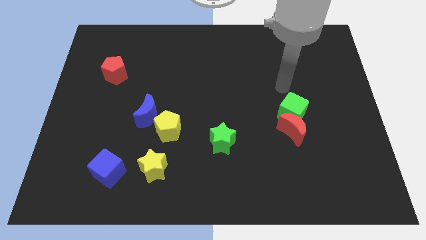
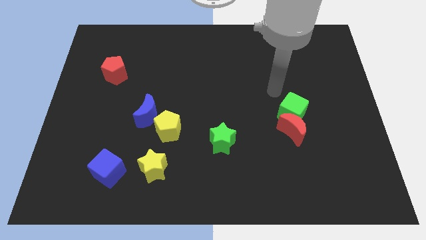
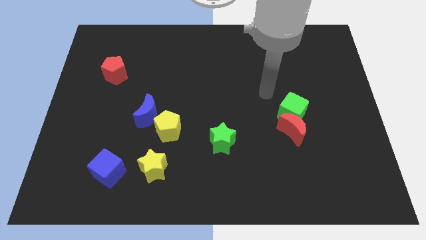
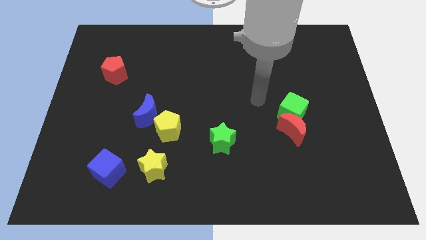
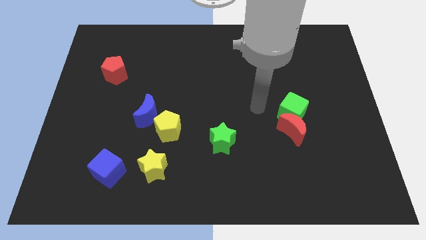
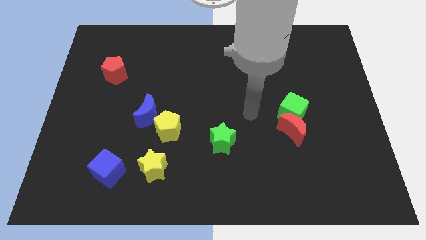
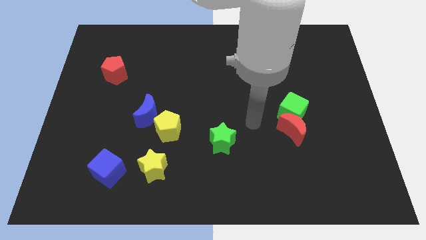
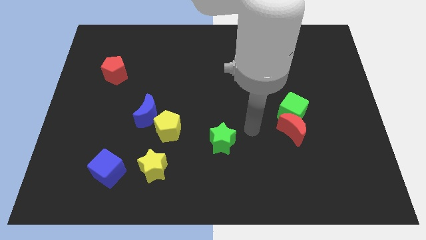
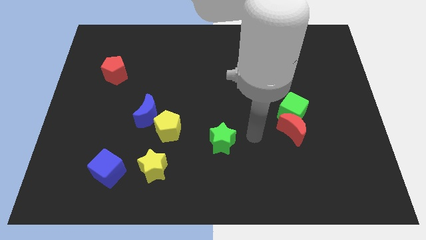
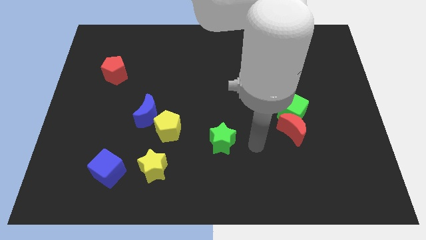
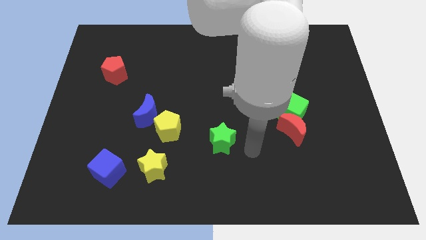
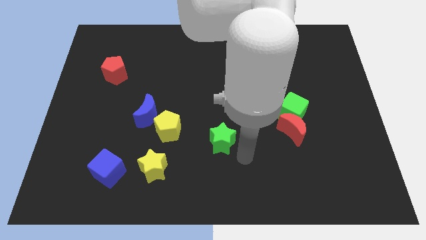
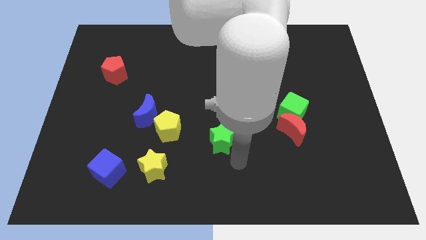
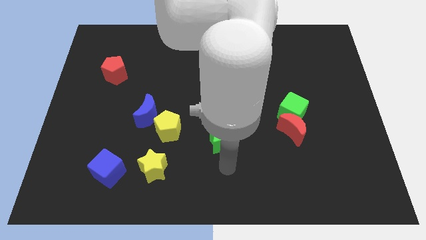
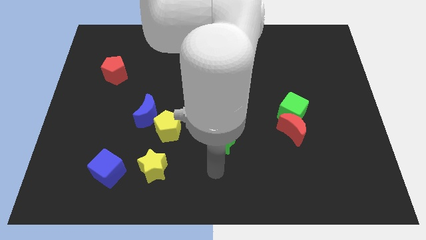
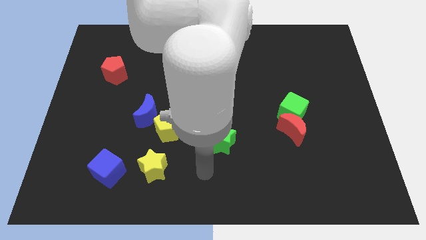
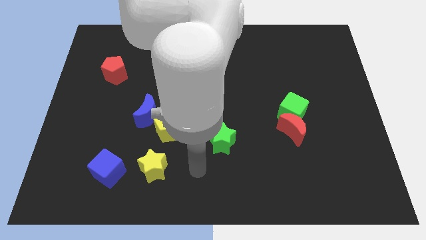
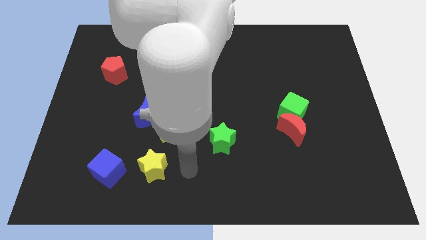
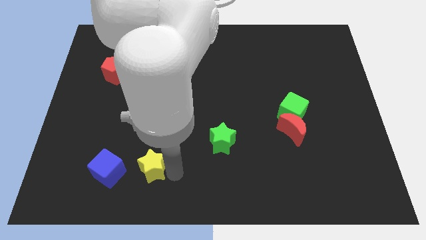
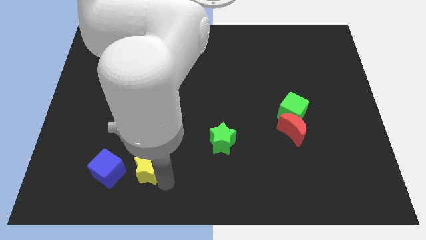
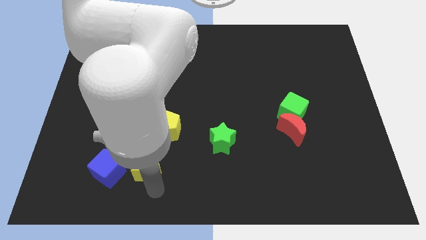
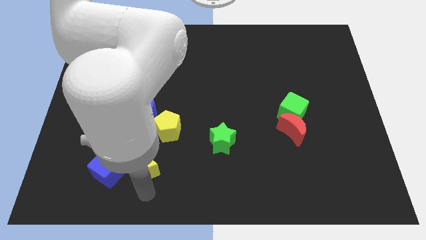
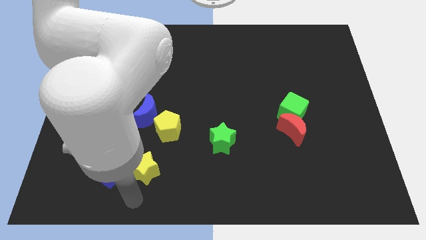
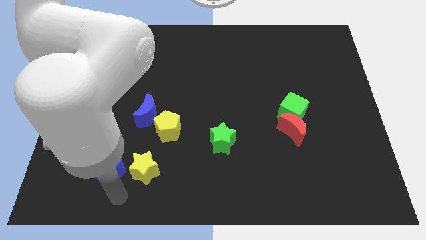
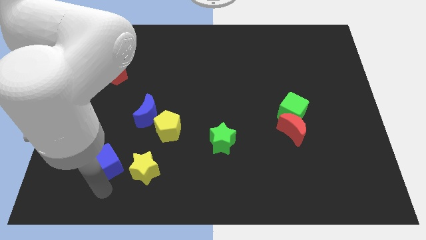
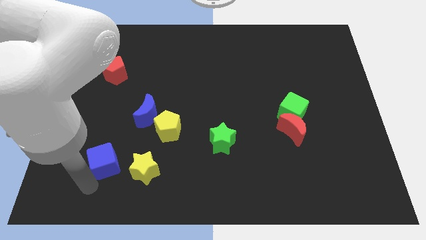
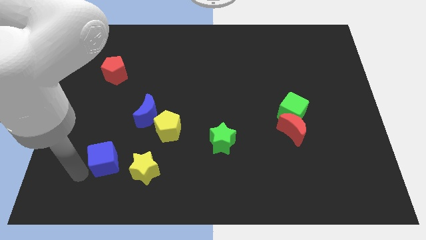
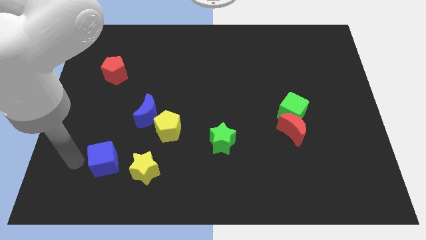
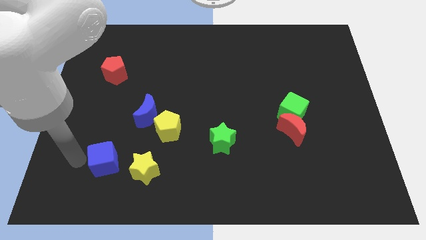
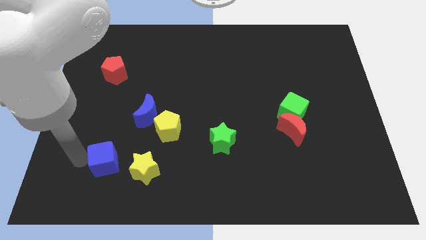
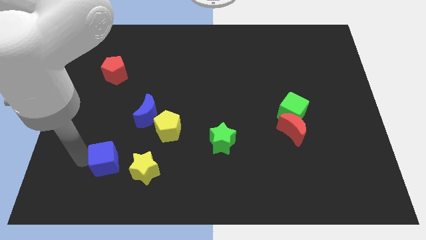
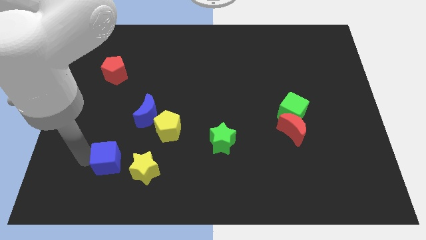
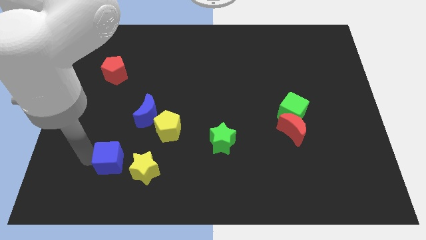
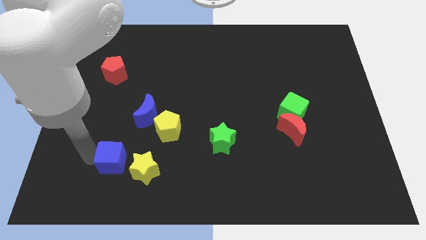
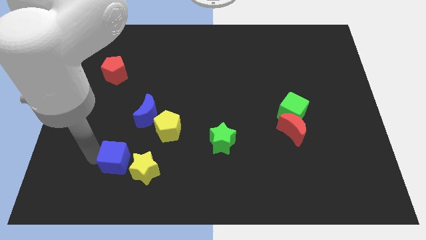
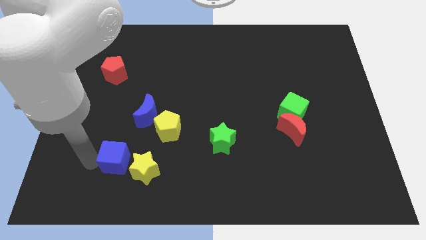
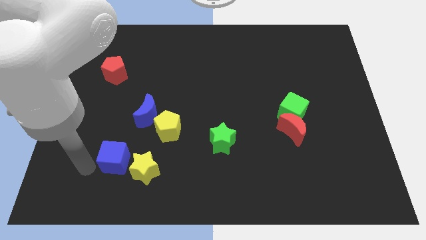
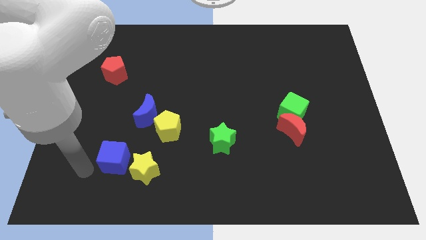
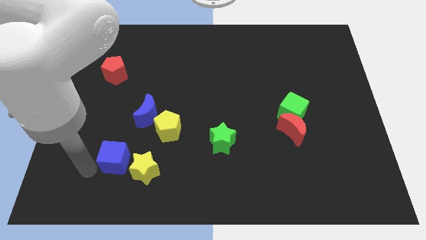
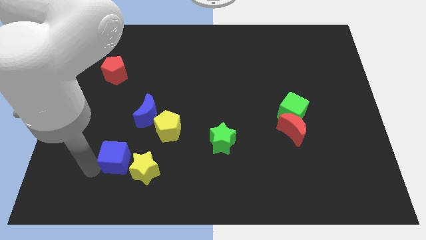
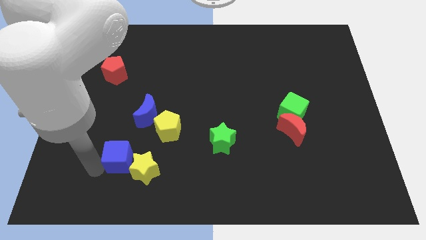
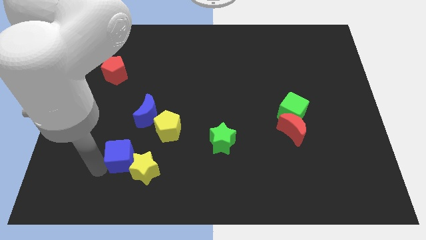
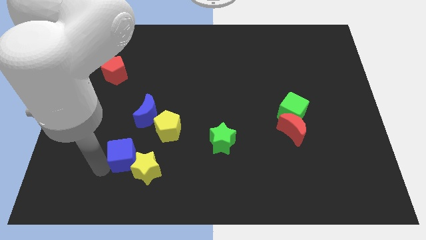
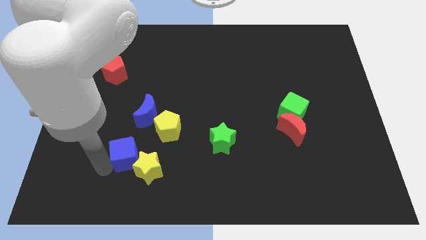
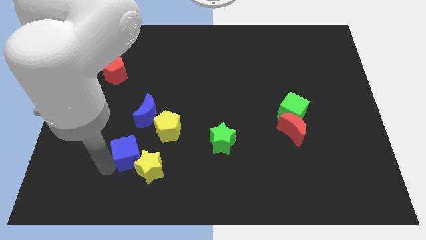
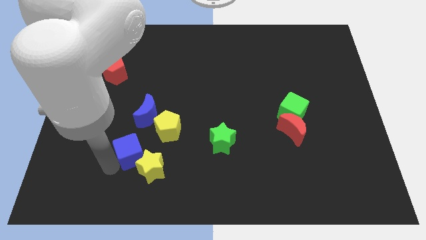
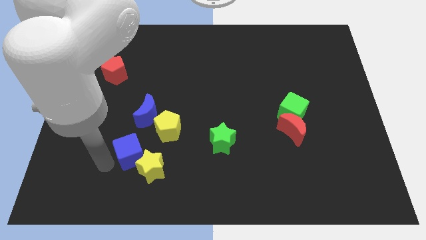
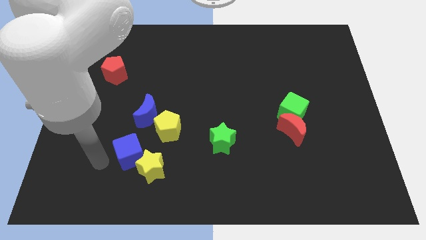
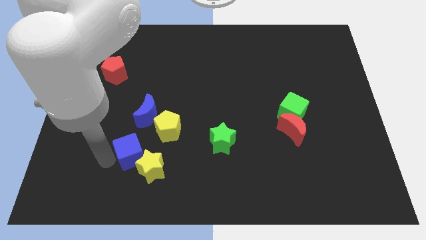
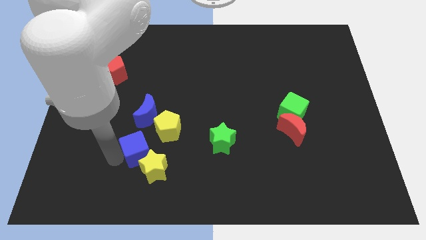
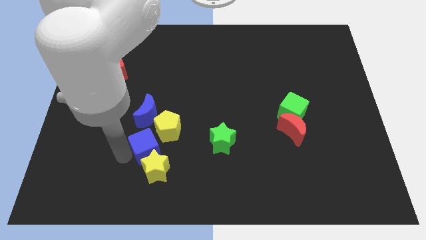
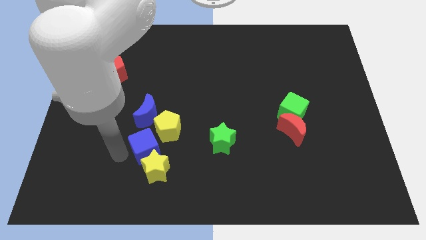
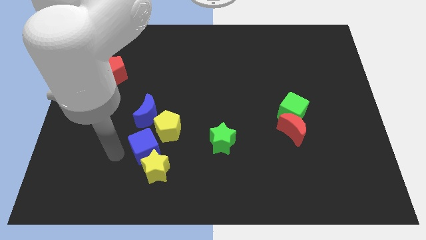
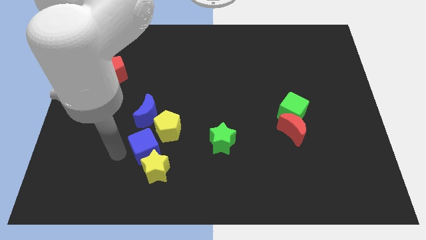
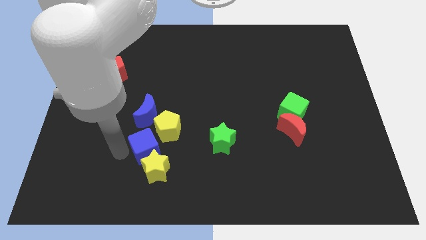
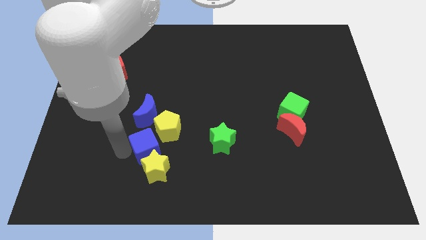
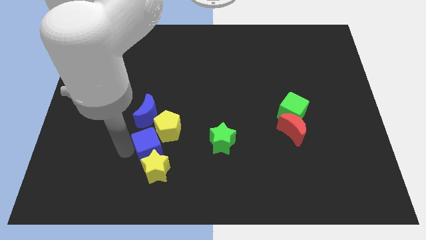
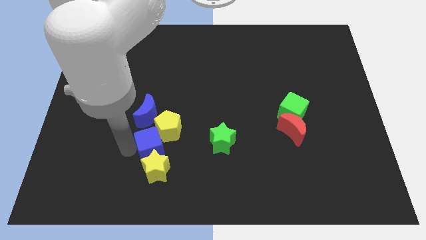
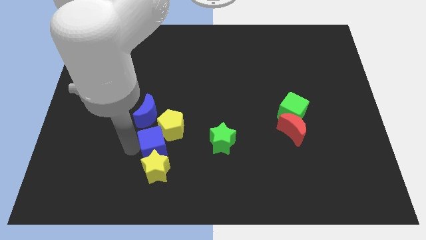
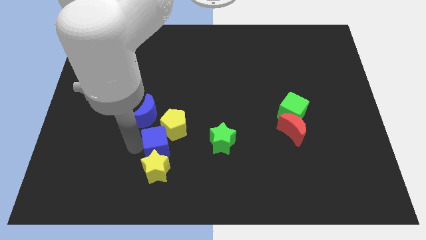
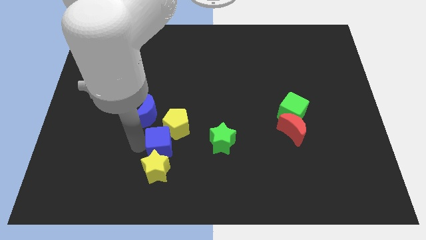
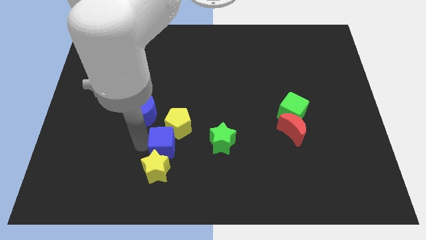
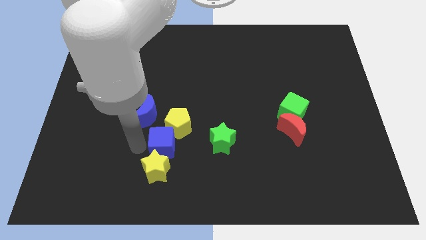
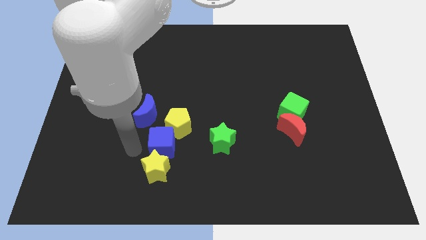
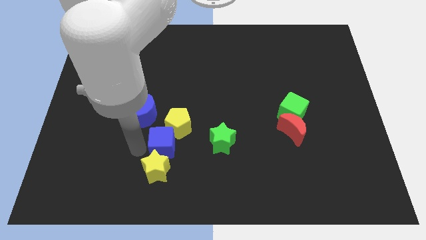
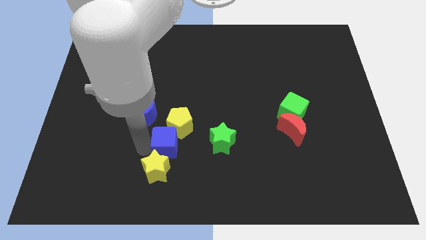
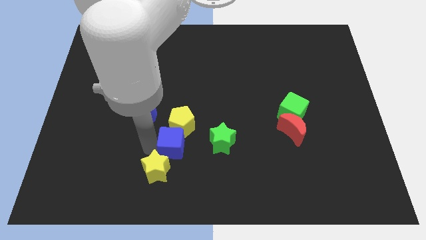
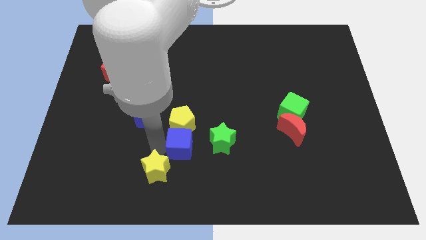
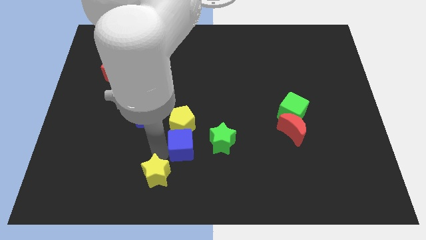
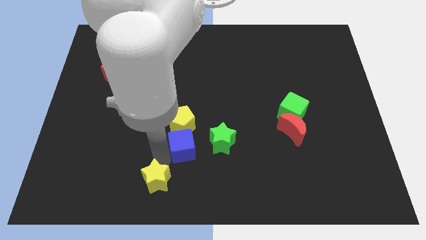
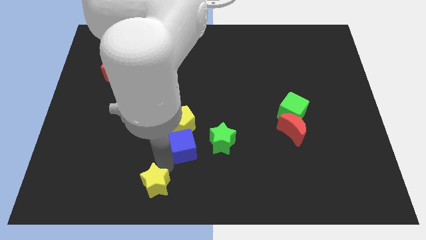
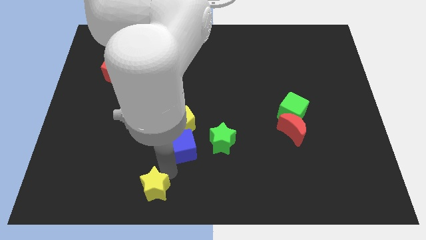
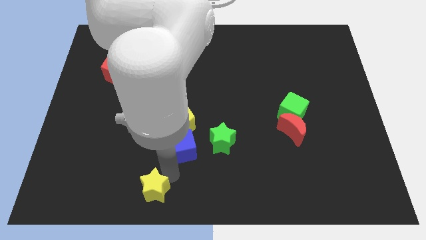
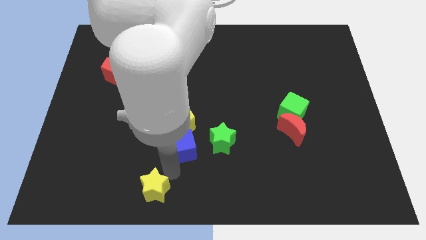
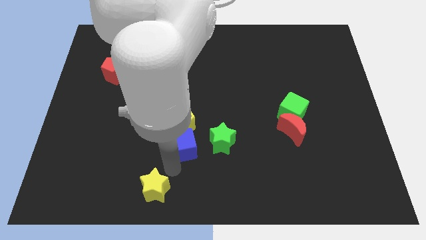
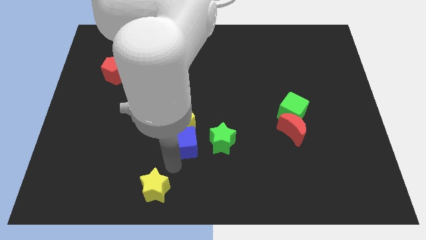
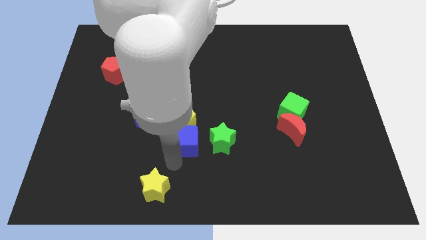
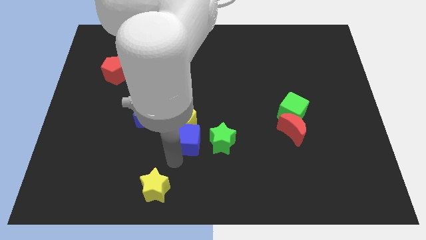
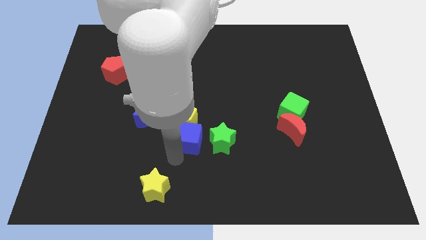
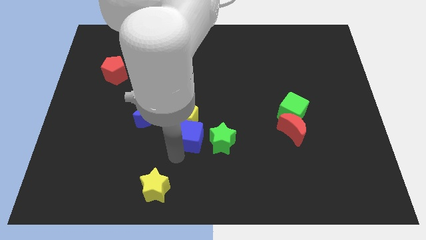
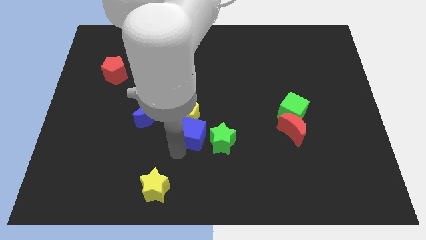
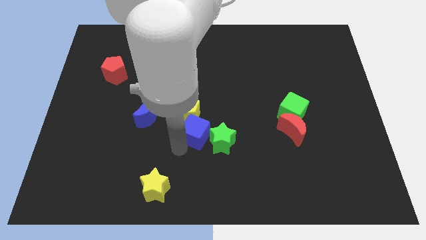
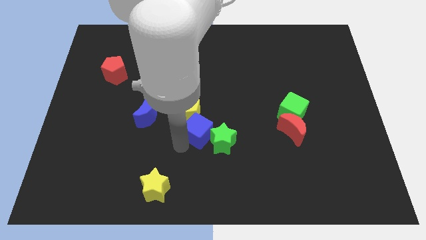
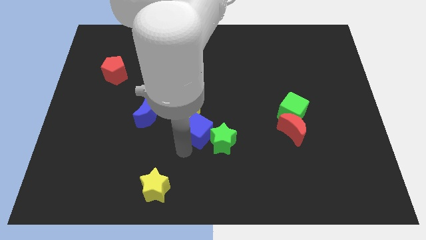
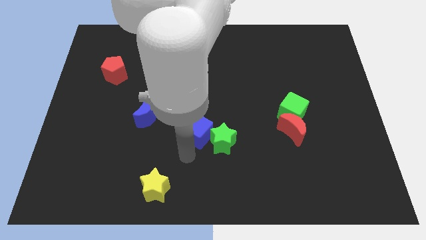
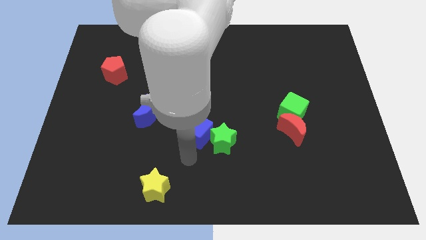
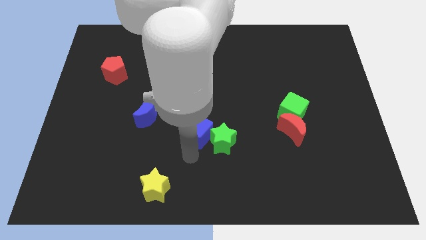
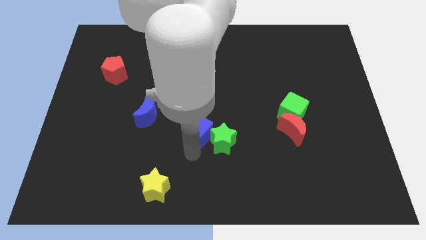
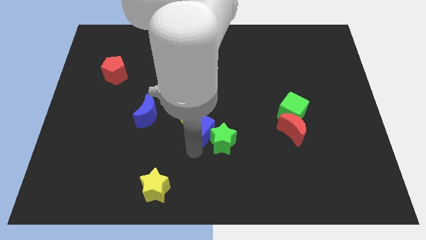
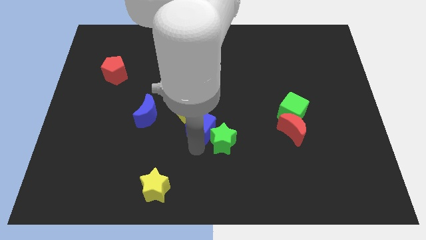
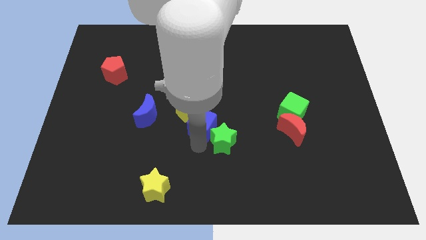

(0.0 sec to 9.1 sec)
push the blue cube upwards and right
